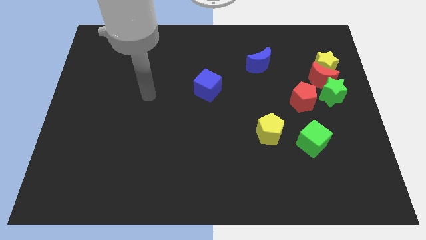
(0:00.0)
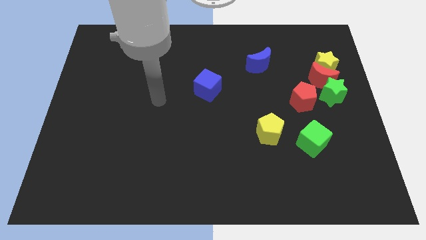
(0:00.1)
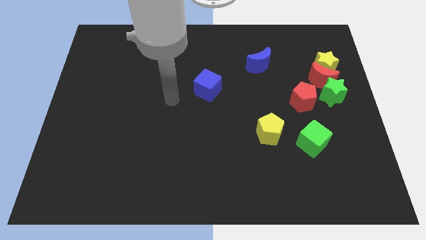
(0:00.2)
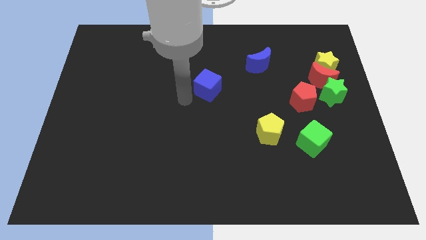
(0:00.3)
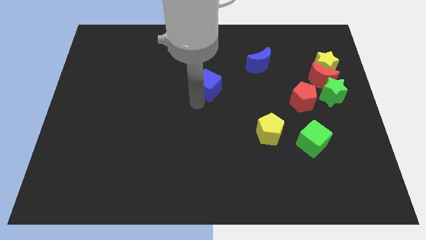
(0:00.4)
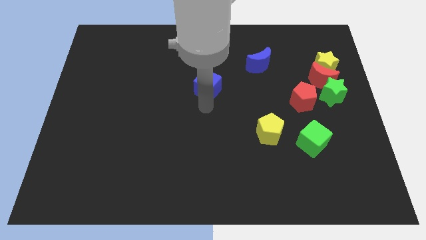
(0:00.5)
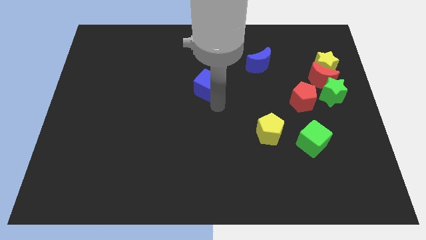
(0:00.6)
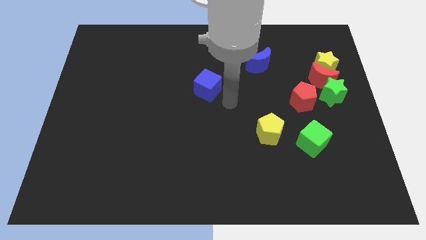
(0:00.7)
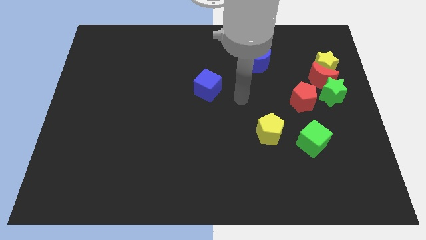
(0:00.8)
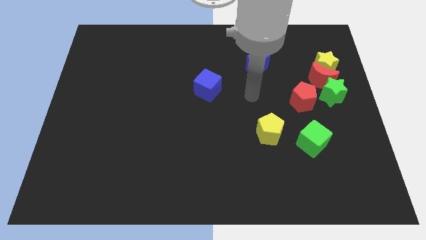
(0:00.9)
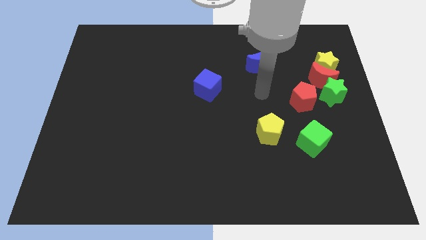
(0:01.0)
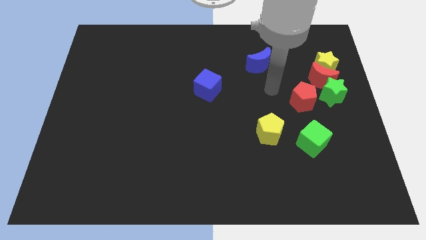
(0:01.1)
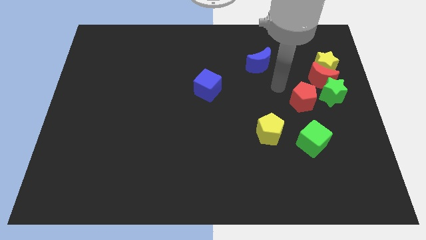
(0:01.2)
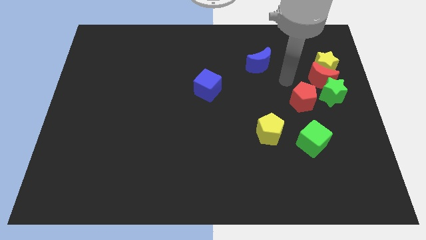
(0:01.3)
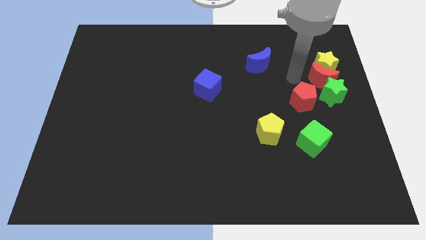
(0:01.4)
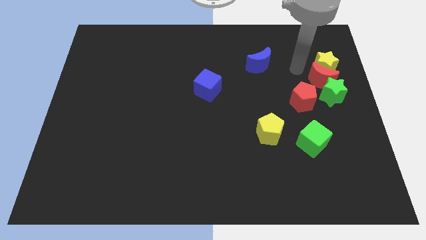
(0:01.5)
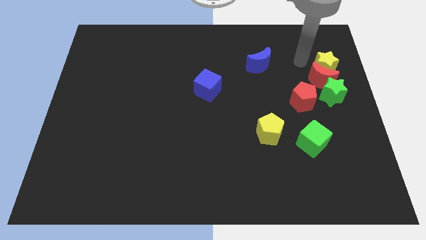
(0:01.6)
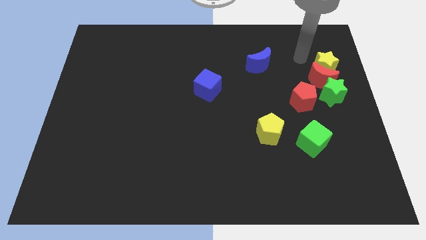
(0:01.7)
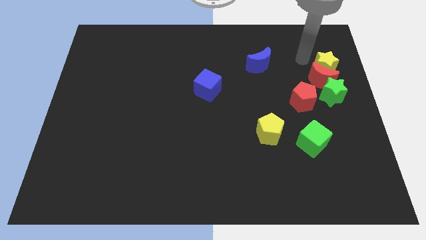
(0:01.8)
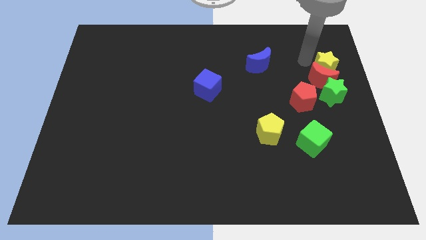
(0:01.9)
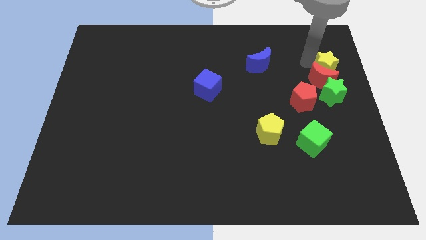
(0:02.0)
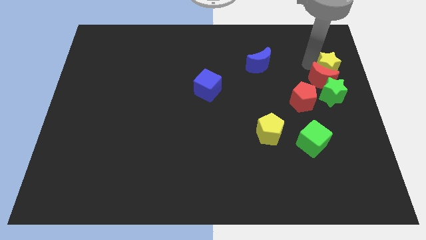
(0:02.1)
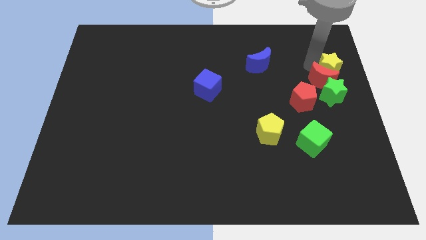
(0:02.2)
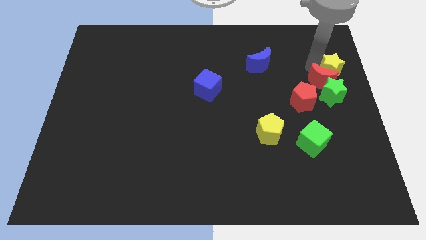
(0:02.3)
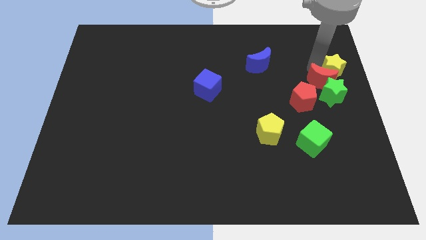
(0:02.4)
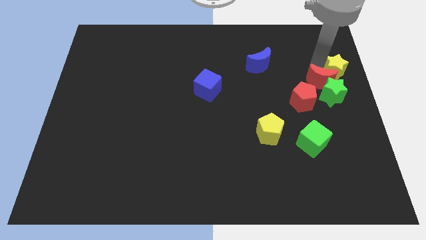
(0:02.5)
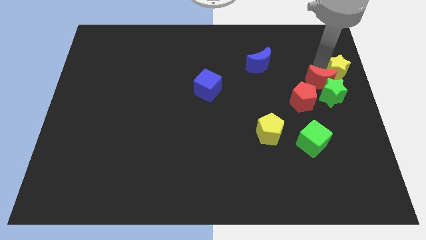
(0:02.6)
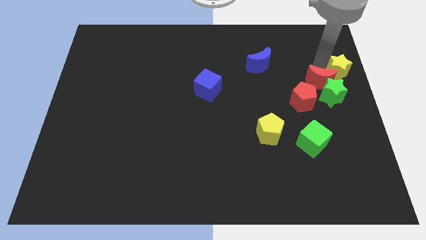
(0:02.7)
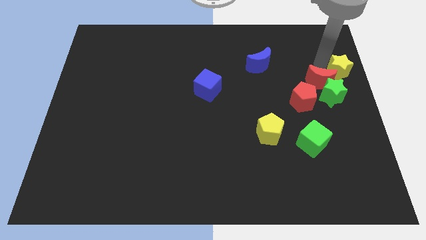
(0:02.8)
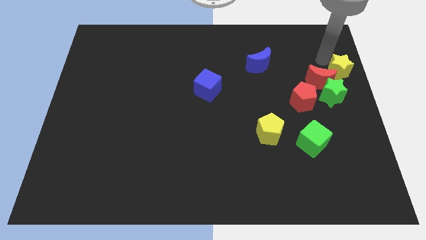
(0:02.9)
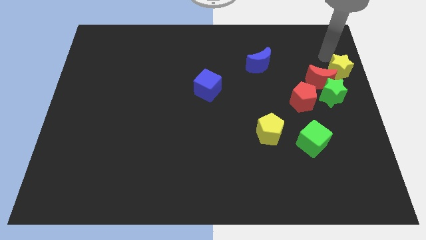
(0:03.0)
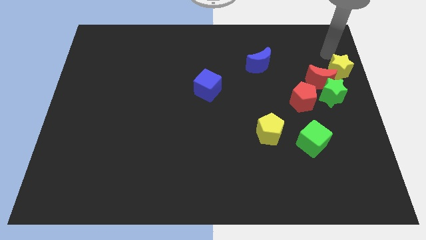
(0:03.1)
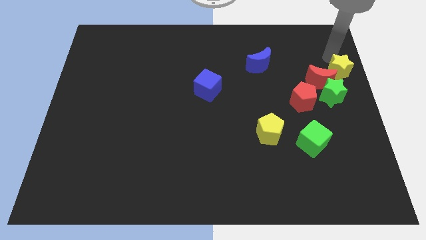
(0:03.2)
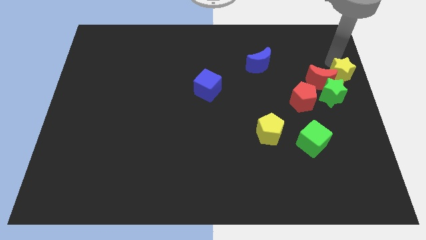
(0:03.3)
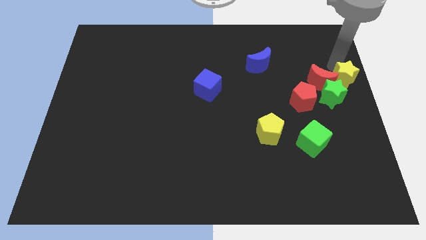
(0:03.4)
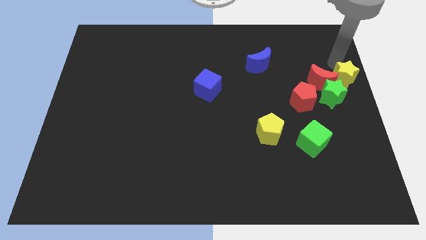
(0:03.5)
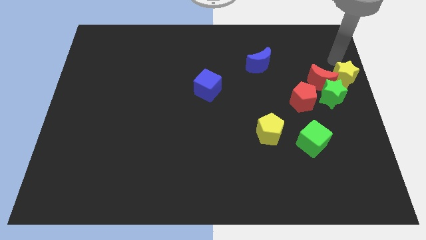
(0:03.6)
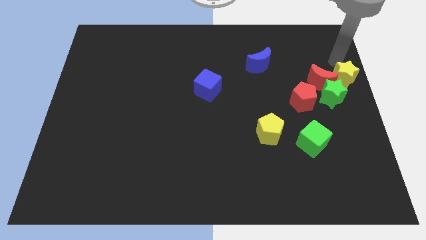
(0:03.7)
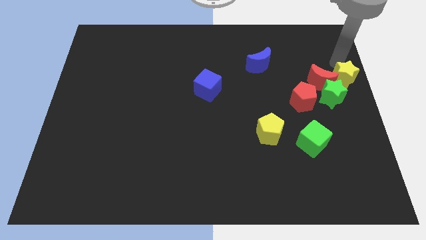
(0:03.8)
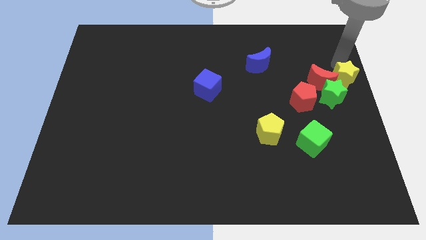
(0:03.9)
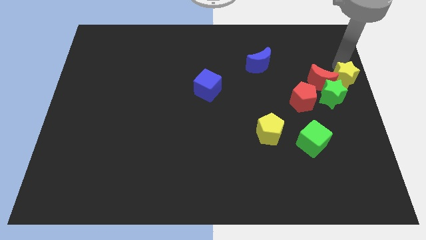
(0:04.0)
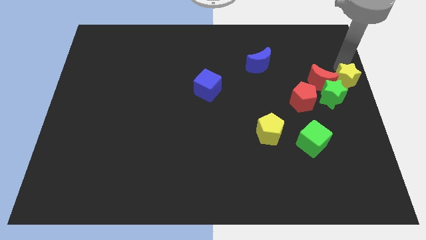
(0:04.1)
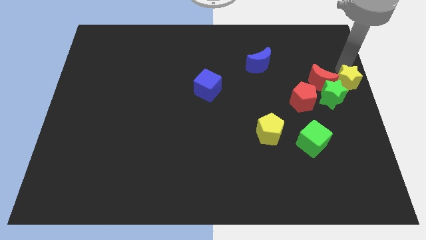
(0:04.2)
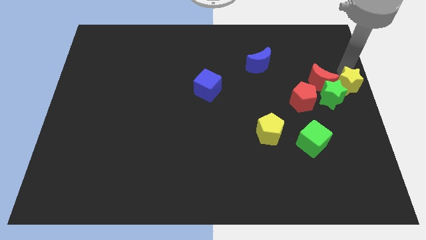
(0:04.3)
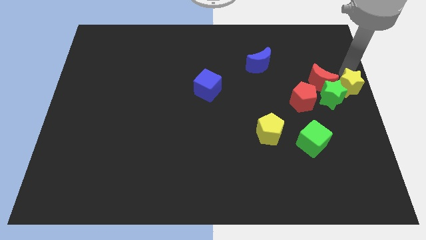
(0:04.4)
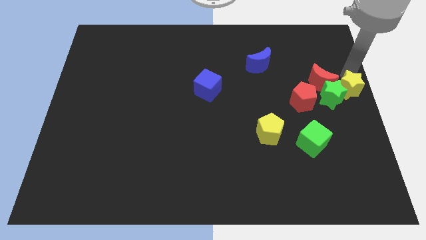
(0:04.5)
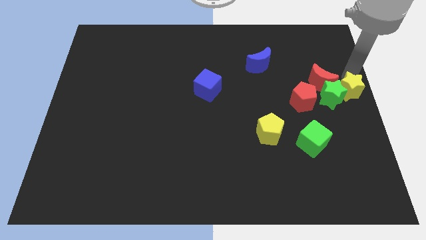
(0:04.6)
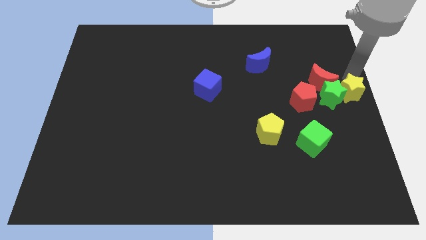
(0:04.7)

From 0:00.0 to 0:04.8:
slightly move the yellow star downwards

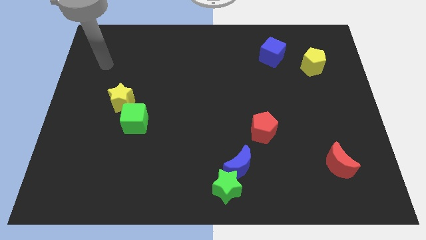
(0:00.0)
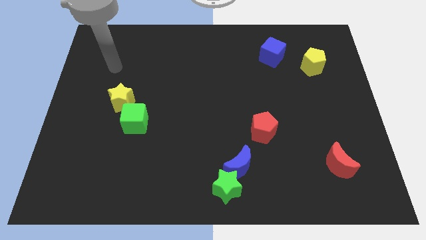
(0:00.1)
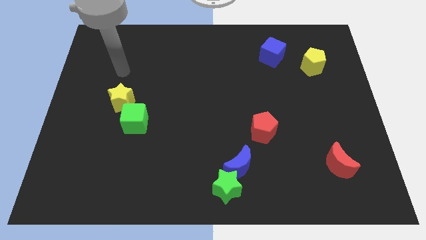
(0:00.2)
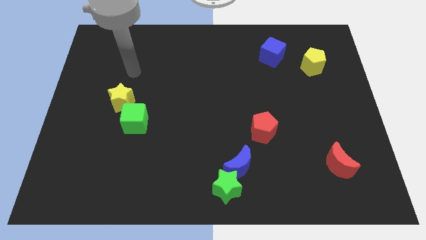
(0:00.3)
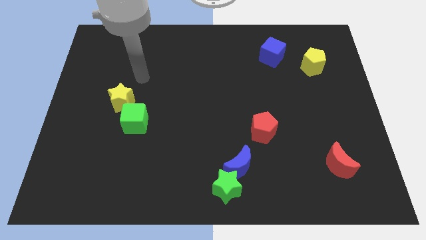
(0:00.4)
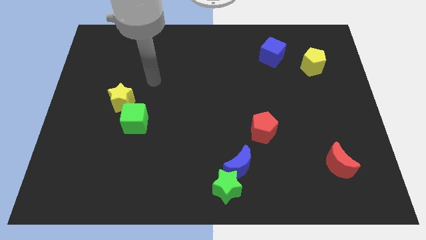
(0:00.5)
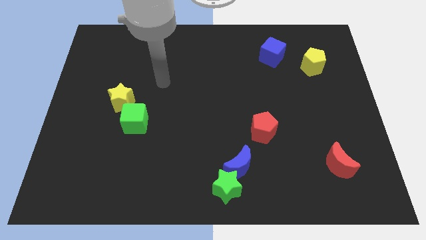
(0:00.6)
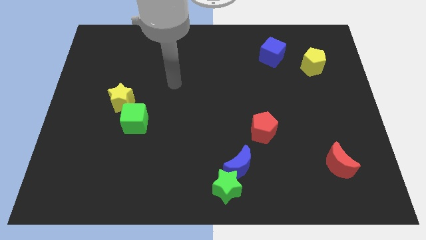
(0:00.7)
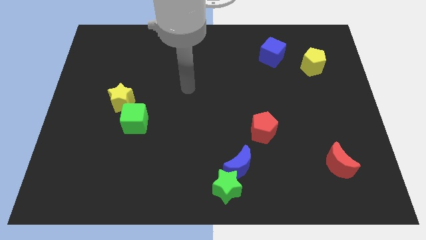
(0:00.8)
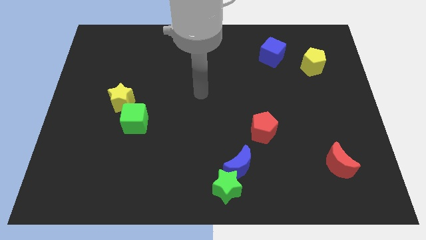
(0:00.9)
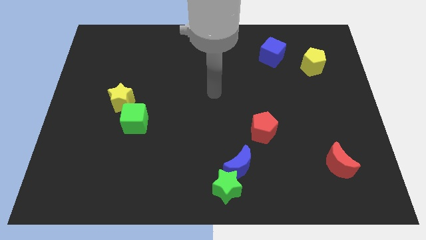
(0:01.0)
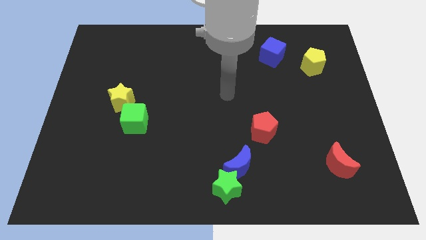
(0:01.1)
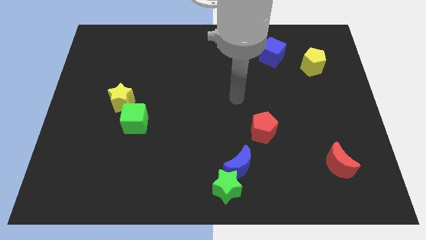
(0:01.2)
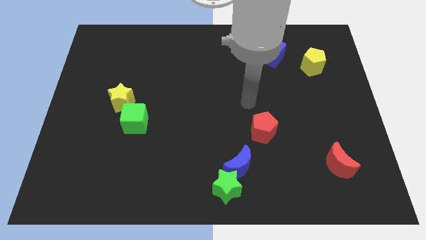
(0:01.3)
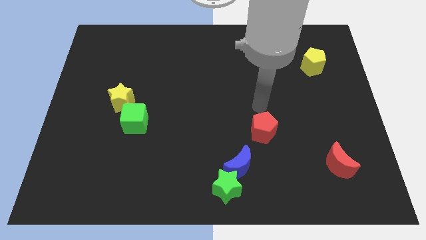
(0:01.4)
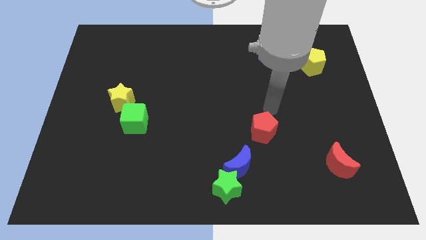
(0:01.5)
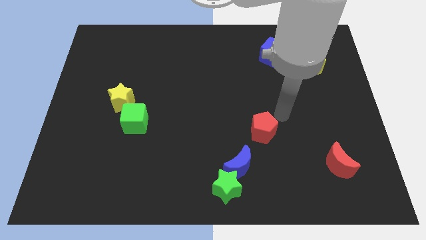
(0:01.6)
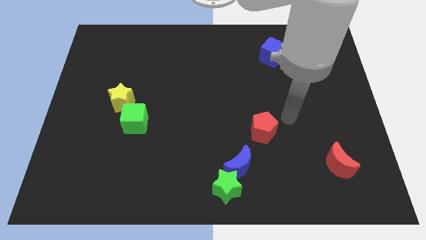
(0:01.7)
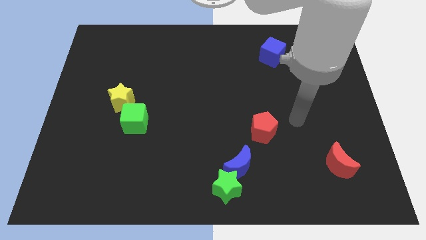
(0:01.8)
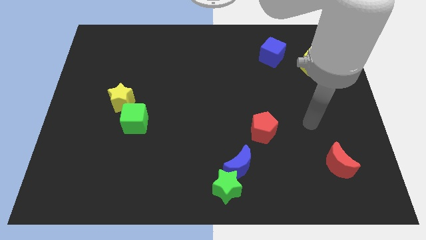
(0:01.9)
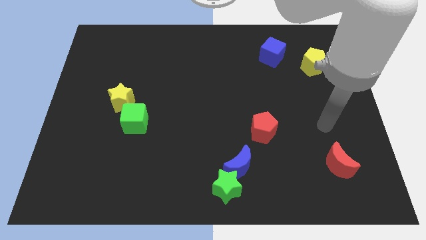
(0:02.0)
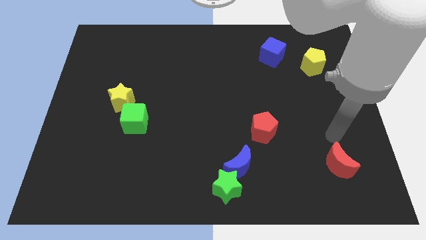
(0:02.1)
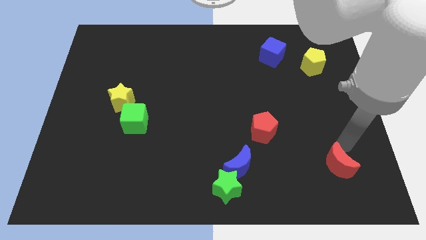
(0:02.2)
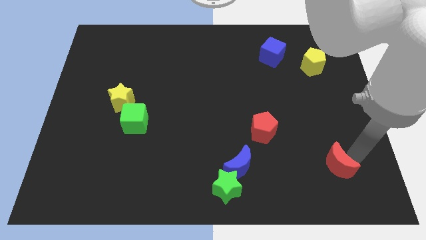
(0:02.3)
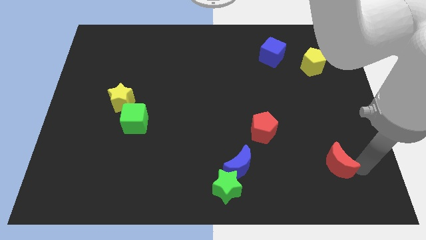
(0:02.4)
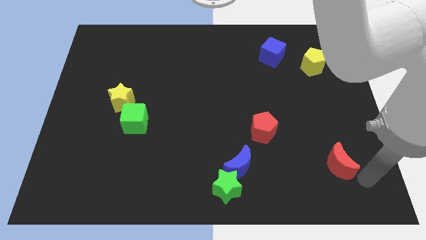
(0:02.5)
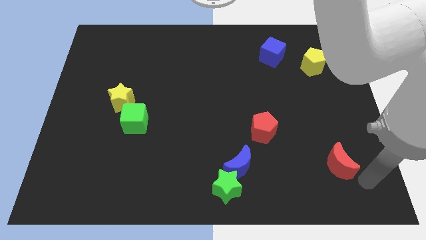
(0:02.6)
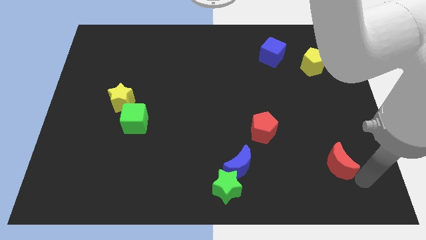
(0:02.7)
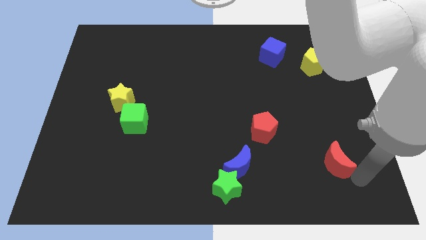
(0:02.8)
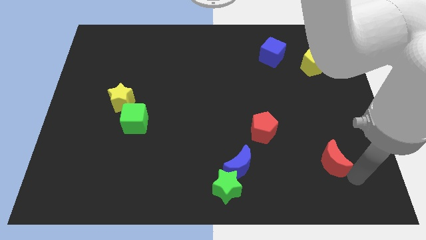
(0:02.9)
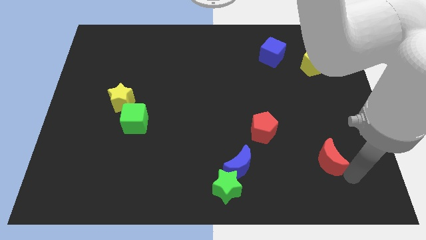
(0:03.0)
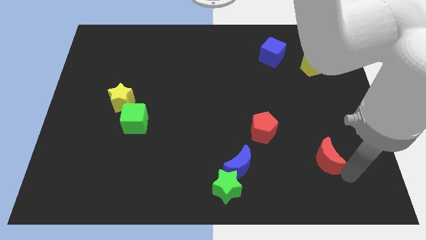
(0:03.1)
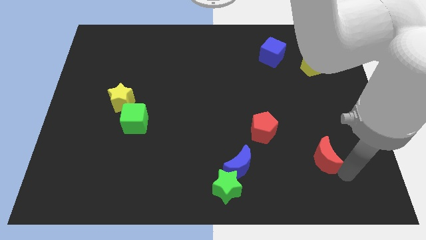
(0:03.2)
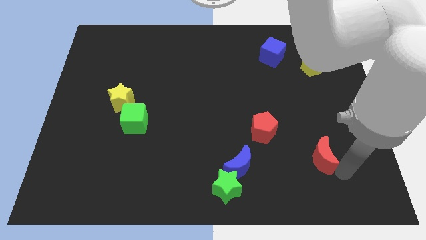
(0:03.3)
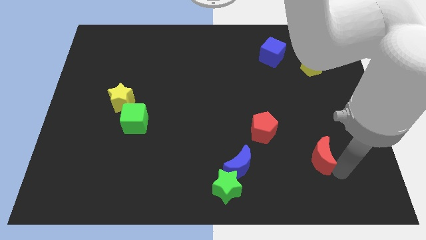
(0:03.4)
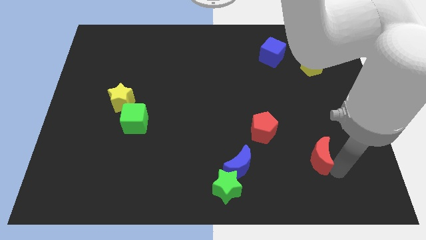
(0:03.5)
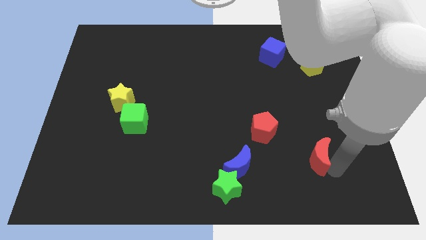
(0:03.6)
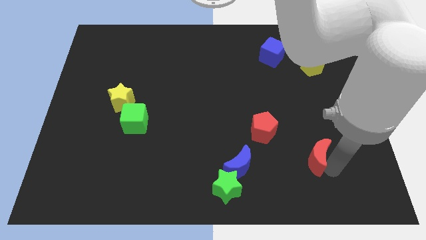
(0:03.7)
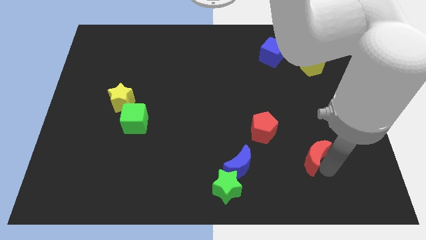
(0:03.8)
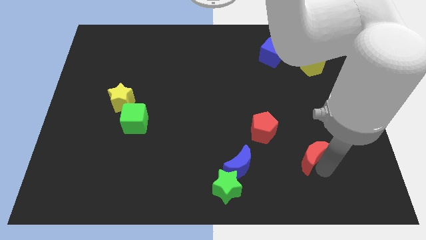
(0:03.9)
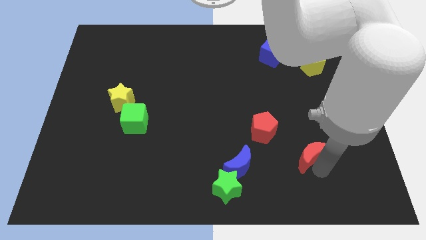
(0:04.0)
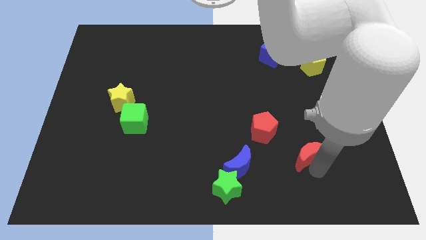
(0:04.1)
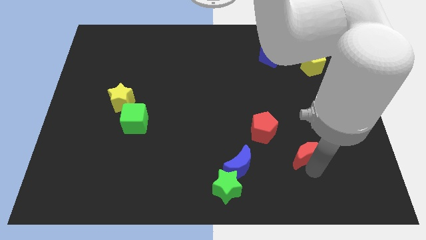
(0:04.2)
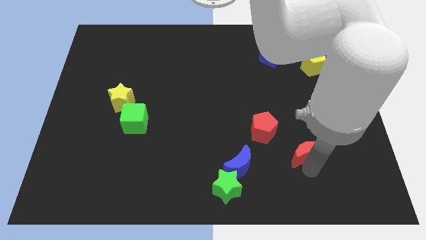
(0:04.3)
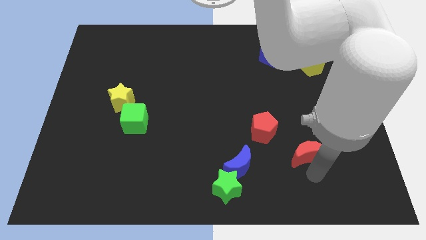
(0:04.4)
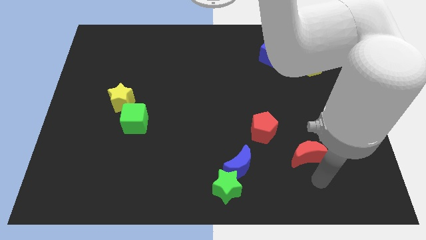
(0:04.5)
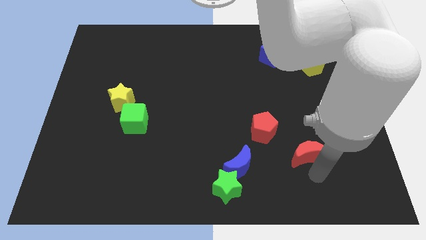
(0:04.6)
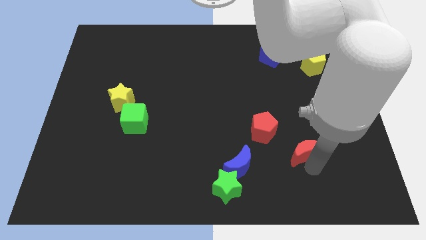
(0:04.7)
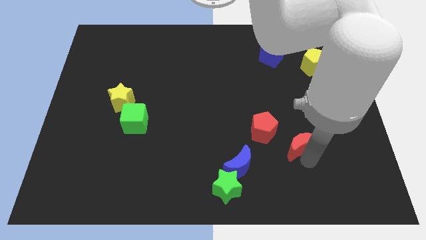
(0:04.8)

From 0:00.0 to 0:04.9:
slightly slide the red moon diagonally up and left
